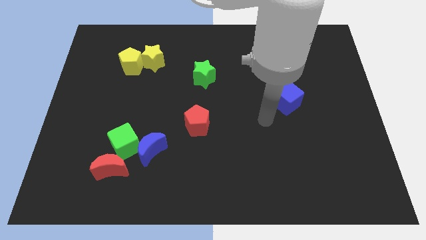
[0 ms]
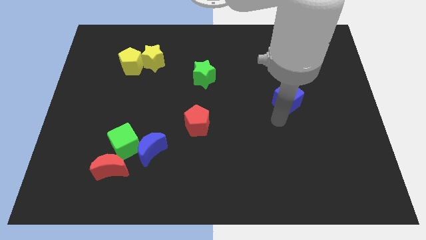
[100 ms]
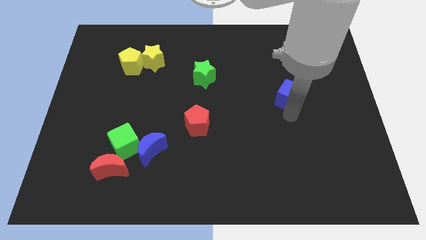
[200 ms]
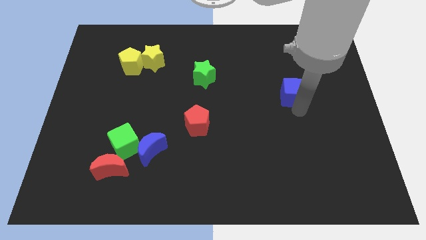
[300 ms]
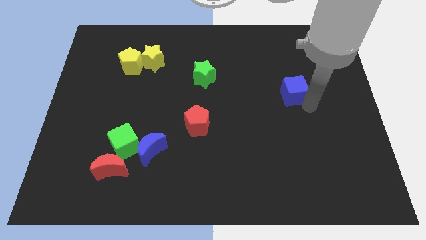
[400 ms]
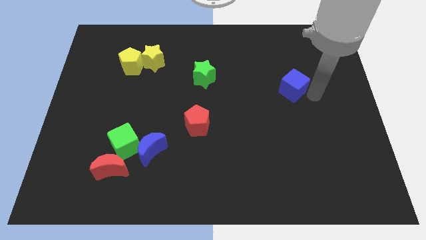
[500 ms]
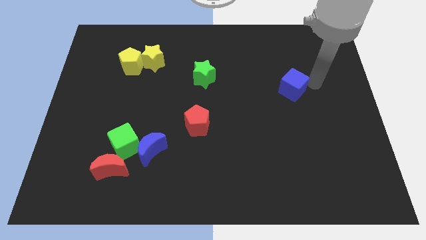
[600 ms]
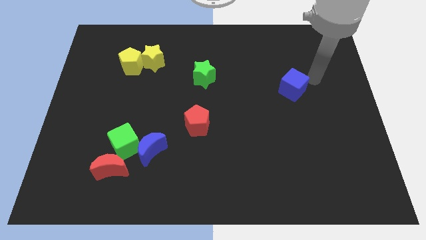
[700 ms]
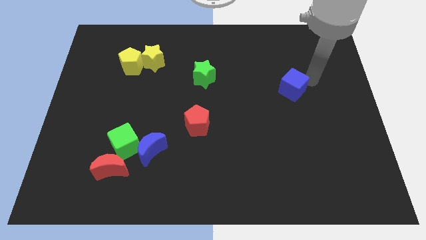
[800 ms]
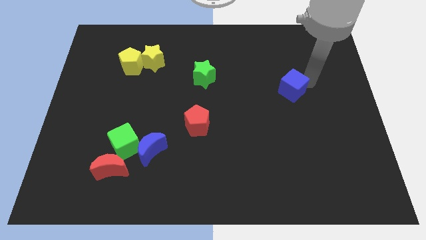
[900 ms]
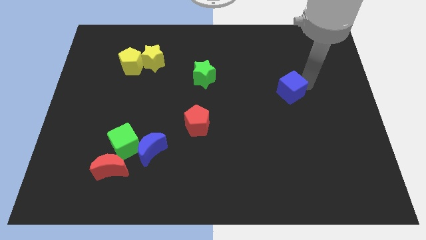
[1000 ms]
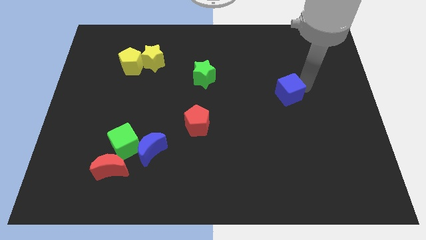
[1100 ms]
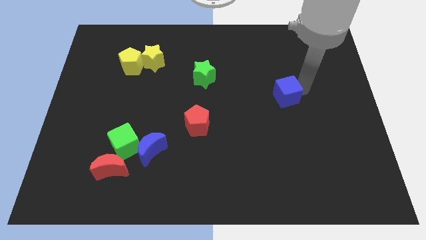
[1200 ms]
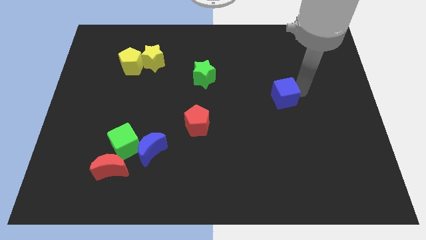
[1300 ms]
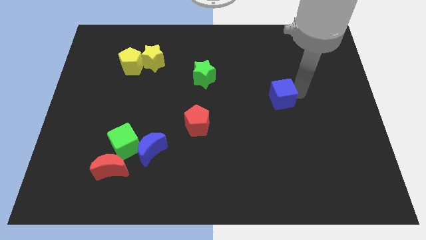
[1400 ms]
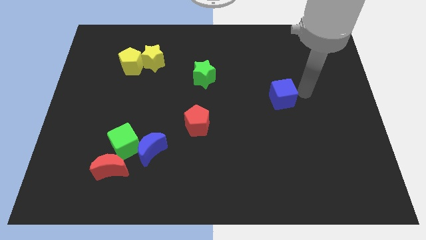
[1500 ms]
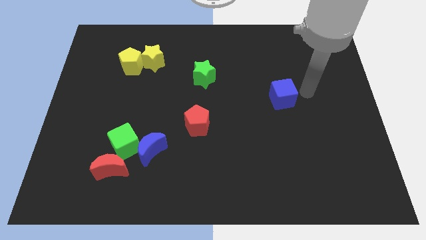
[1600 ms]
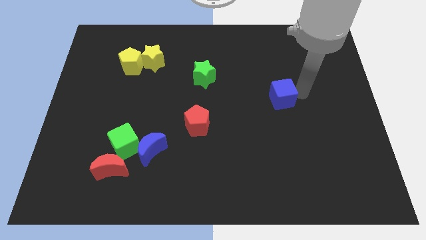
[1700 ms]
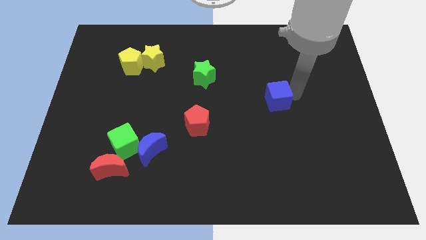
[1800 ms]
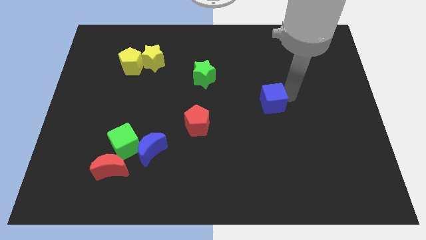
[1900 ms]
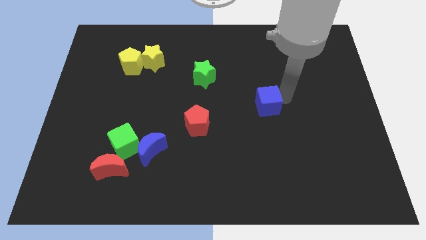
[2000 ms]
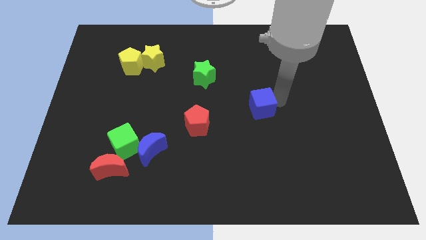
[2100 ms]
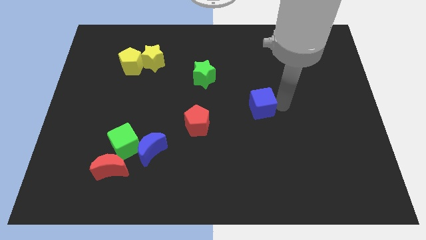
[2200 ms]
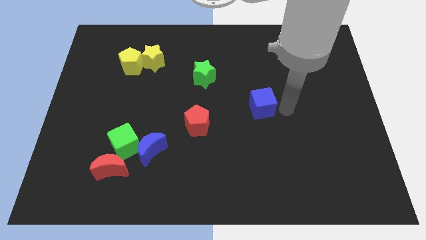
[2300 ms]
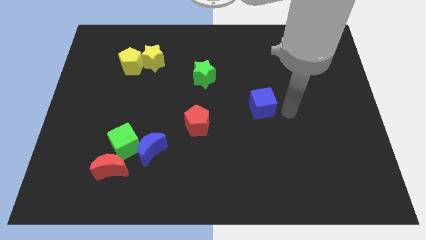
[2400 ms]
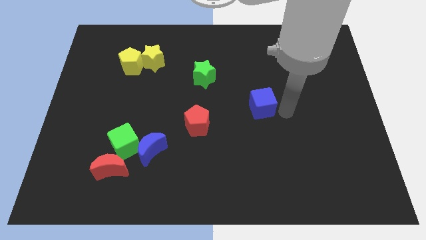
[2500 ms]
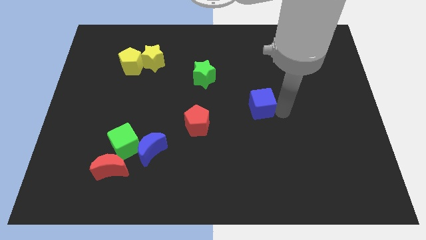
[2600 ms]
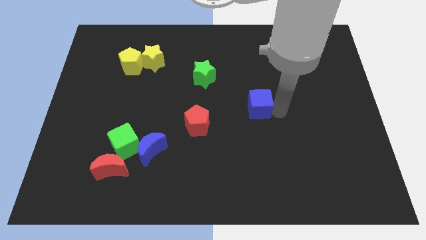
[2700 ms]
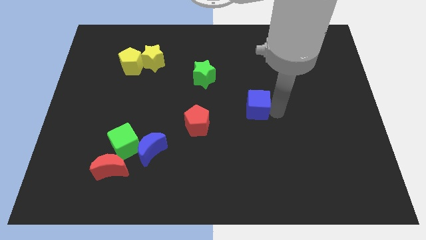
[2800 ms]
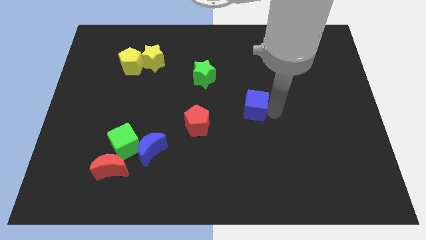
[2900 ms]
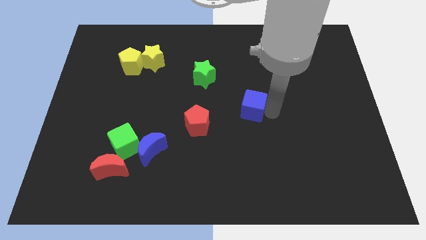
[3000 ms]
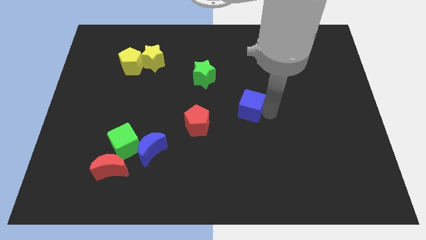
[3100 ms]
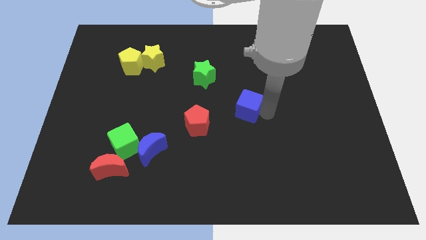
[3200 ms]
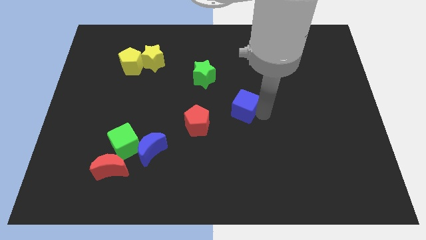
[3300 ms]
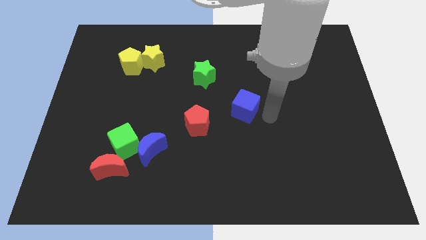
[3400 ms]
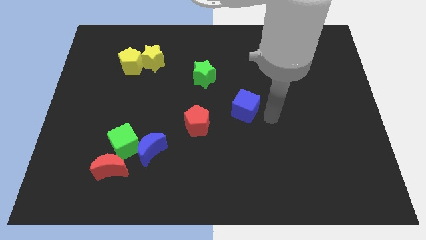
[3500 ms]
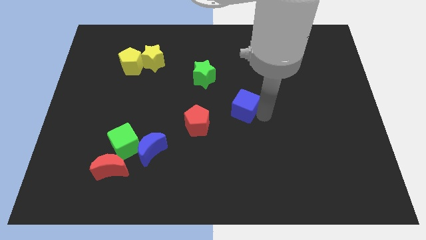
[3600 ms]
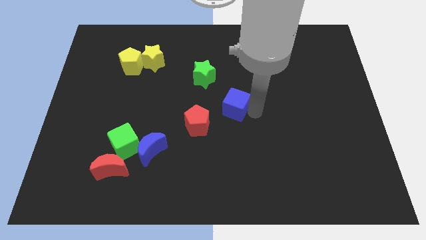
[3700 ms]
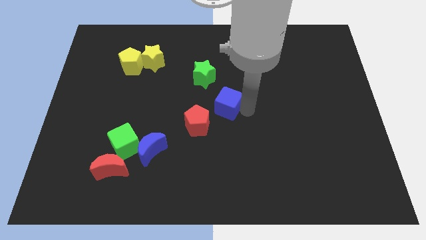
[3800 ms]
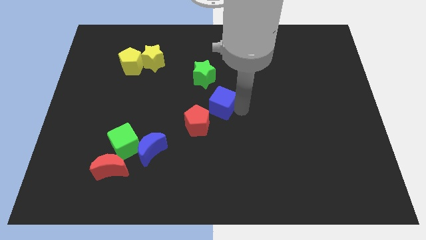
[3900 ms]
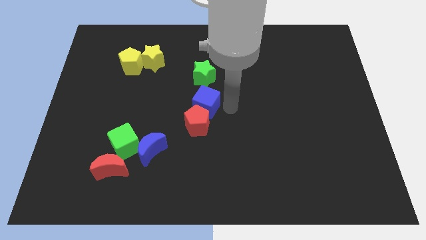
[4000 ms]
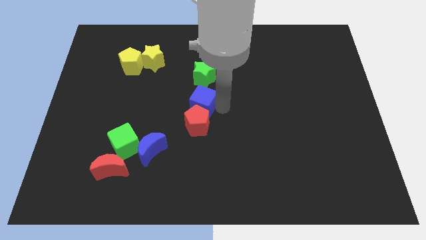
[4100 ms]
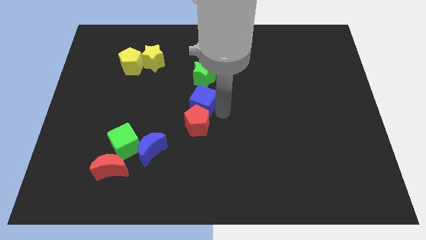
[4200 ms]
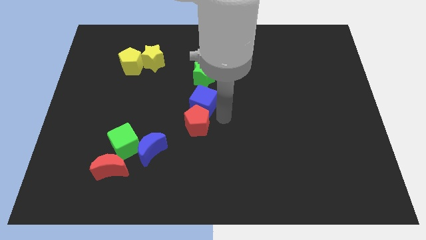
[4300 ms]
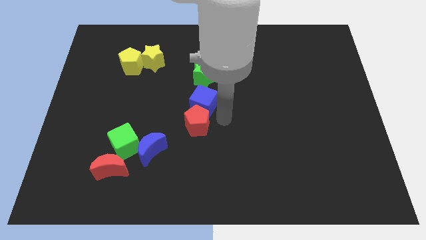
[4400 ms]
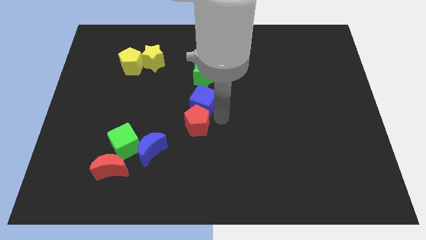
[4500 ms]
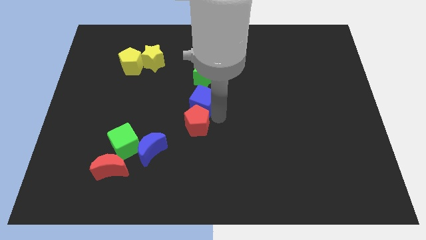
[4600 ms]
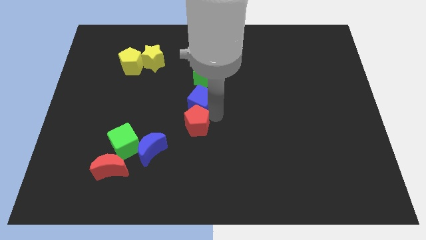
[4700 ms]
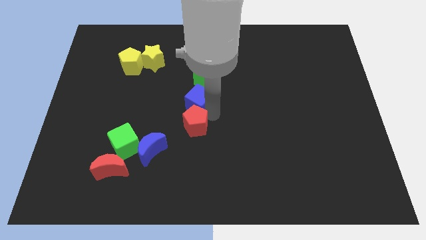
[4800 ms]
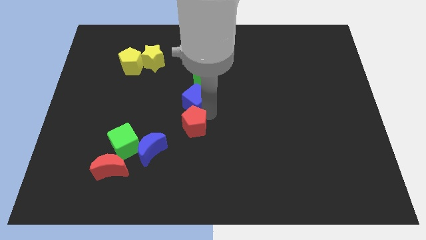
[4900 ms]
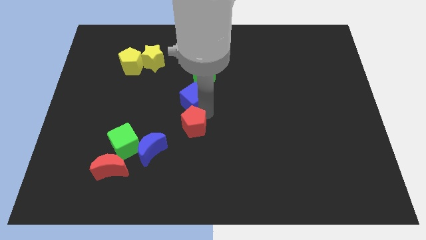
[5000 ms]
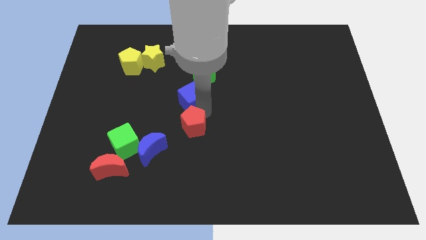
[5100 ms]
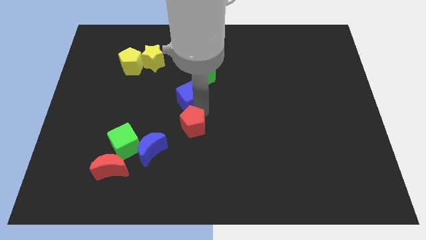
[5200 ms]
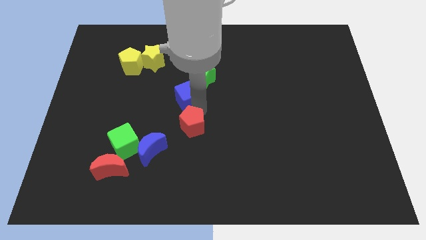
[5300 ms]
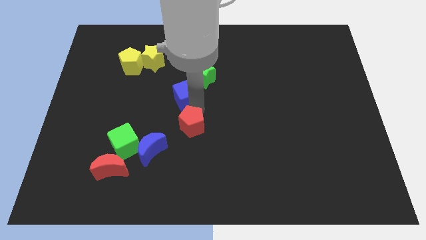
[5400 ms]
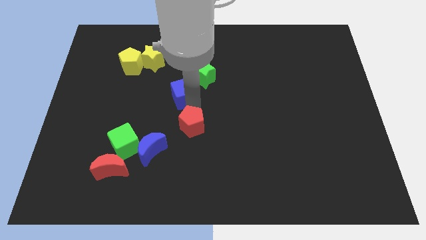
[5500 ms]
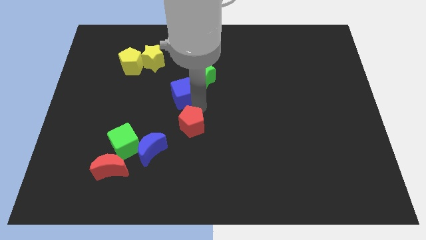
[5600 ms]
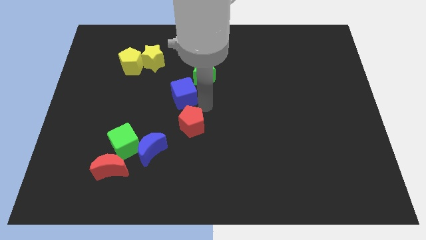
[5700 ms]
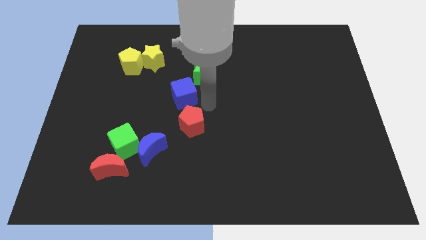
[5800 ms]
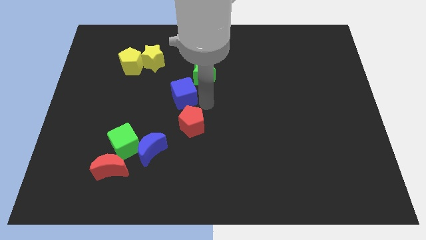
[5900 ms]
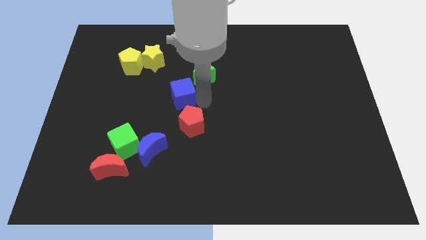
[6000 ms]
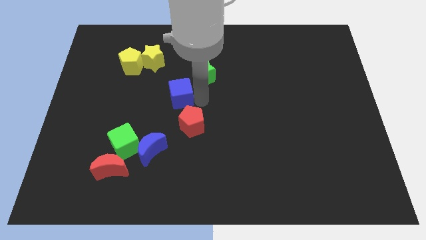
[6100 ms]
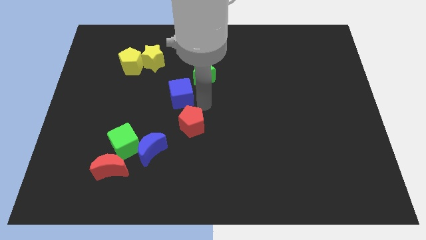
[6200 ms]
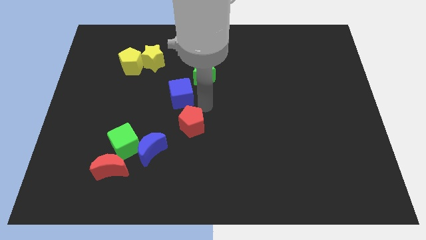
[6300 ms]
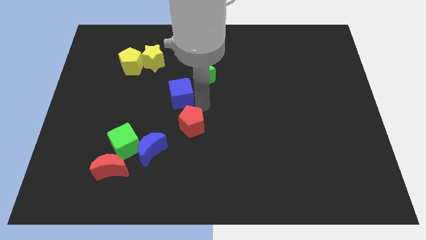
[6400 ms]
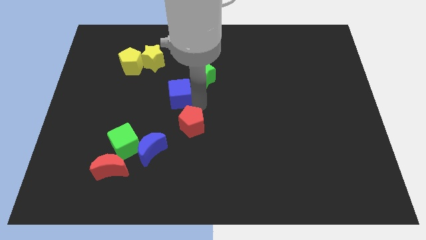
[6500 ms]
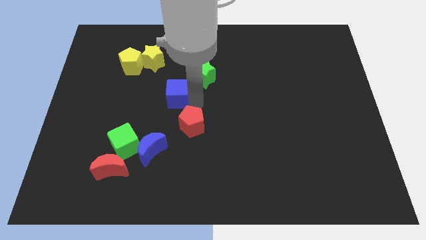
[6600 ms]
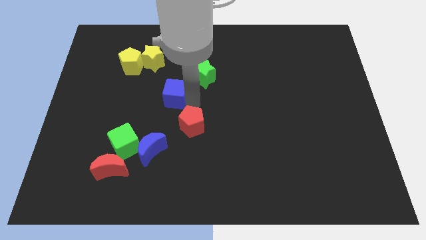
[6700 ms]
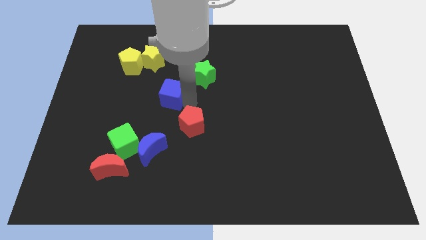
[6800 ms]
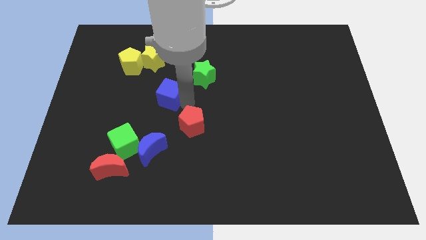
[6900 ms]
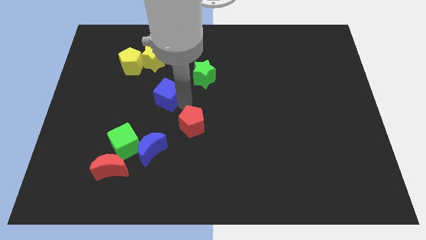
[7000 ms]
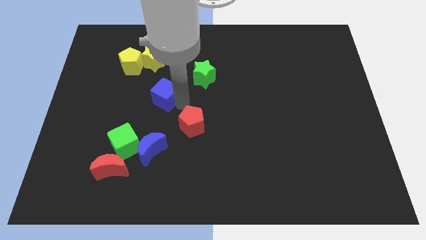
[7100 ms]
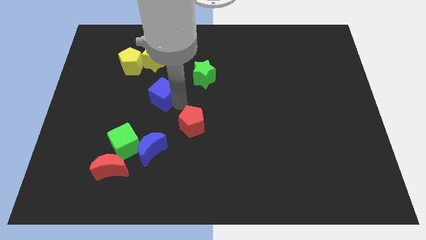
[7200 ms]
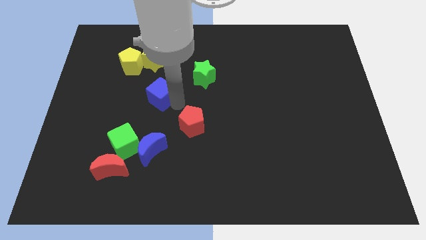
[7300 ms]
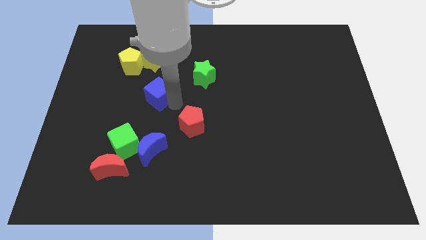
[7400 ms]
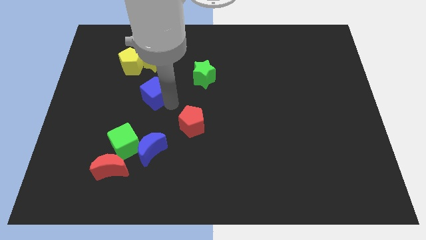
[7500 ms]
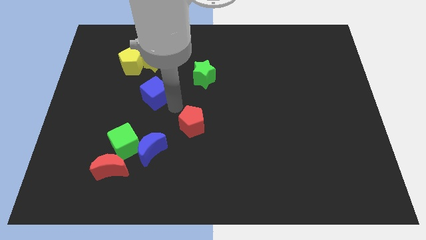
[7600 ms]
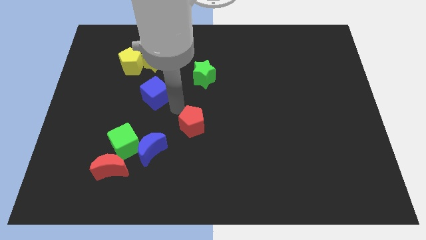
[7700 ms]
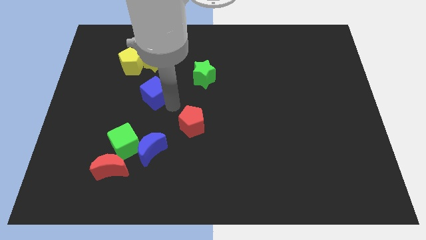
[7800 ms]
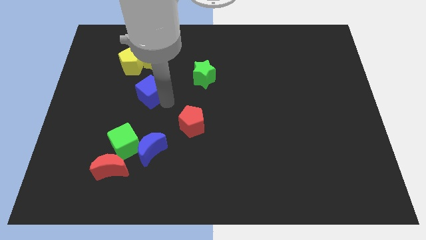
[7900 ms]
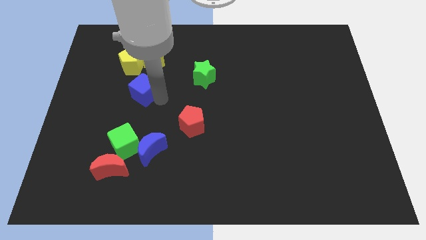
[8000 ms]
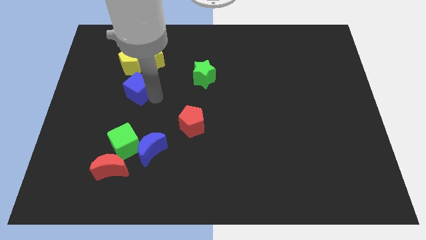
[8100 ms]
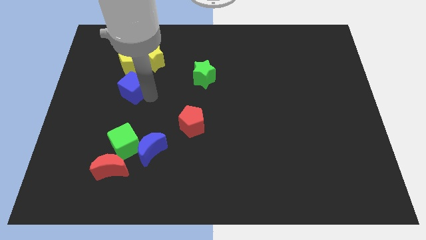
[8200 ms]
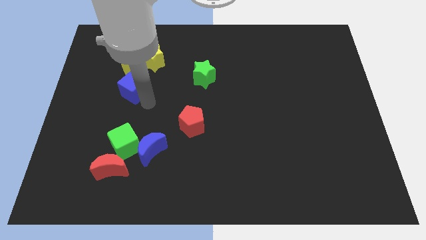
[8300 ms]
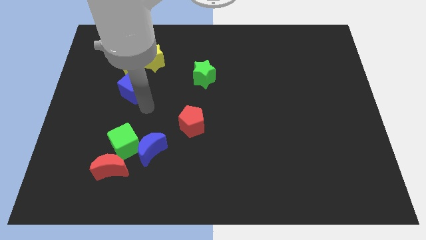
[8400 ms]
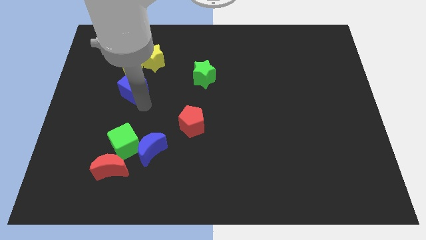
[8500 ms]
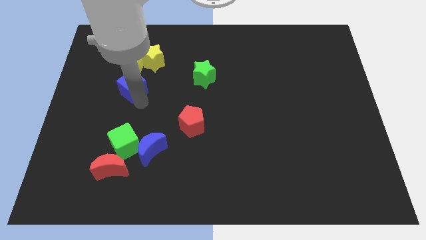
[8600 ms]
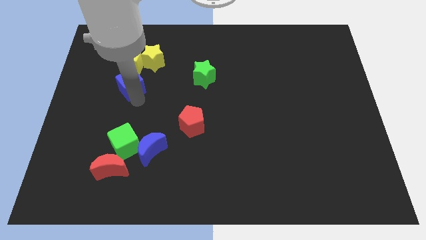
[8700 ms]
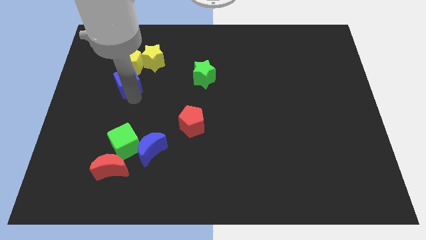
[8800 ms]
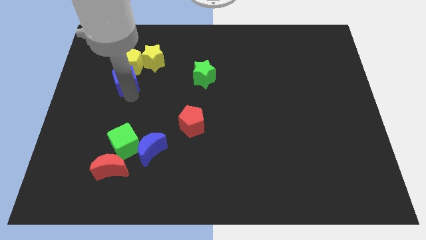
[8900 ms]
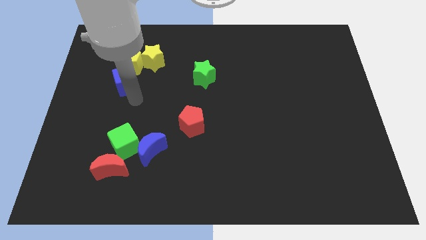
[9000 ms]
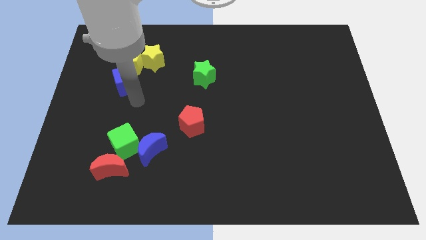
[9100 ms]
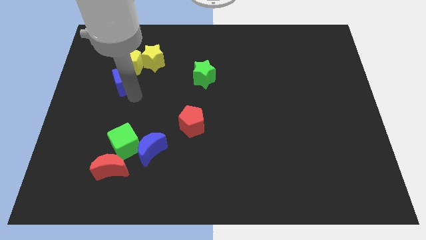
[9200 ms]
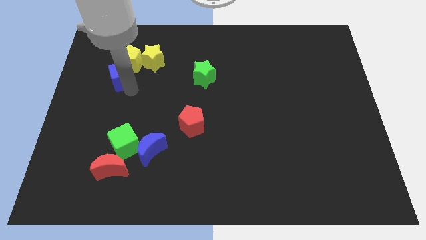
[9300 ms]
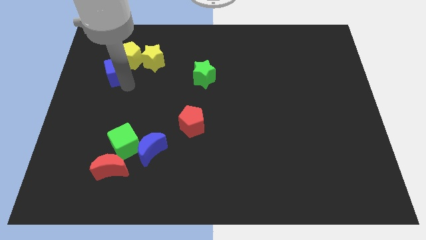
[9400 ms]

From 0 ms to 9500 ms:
move the blue cube to the left of the yellow star
